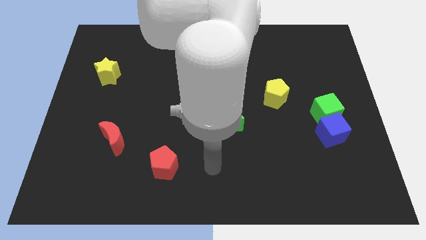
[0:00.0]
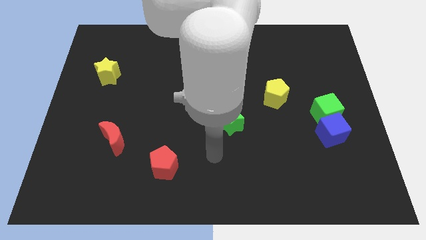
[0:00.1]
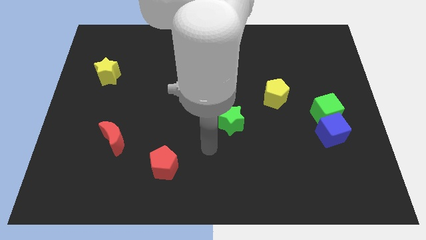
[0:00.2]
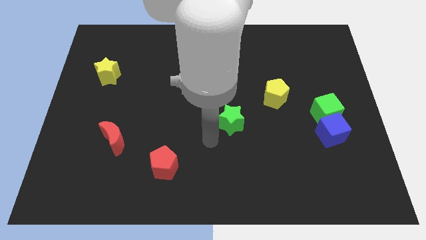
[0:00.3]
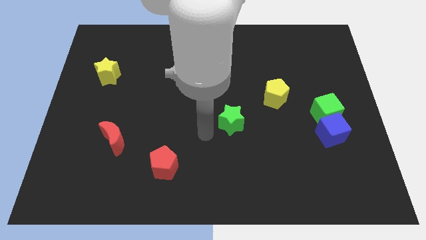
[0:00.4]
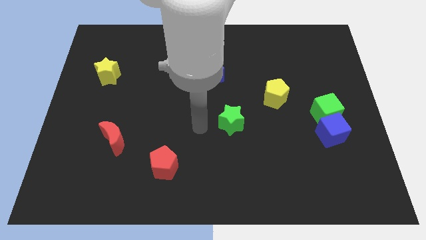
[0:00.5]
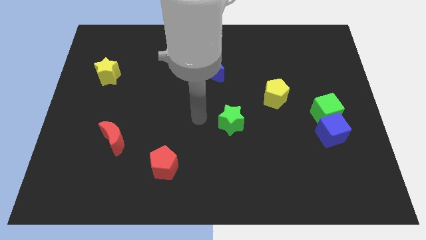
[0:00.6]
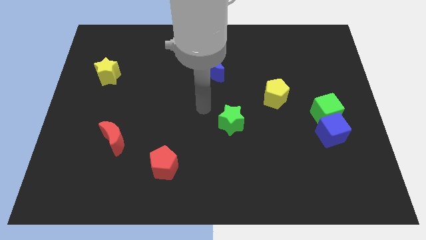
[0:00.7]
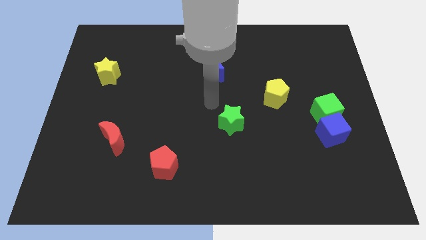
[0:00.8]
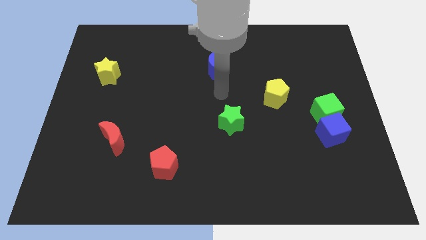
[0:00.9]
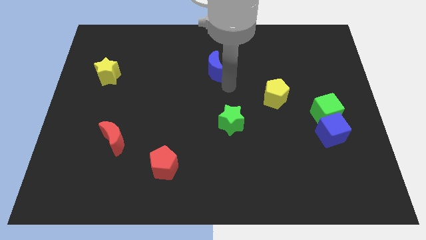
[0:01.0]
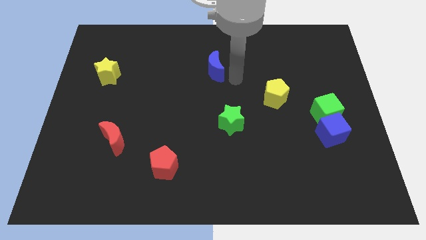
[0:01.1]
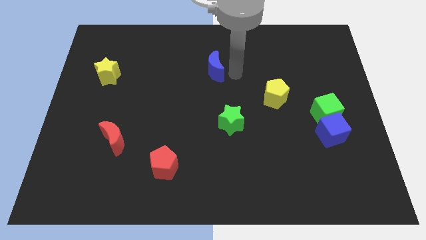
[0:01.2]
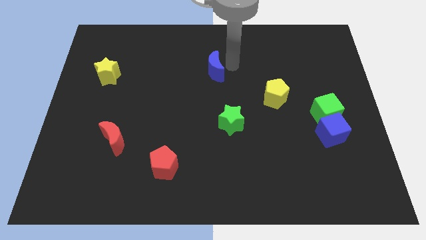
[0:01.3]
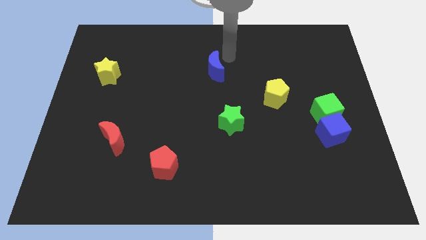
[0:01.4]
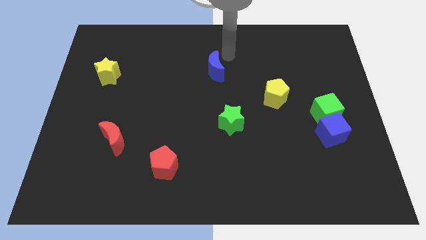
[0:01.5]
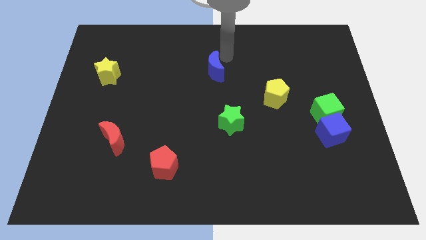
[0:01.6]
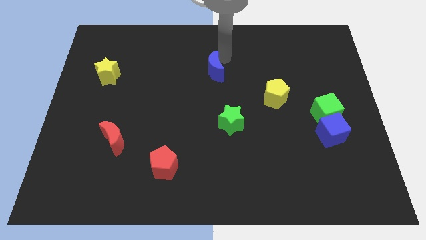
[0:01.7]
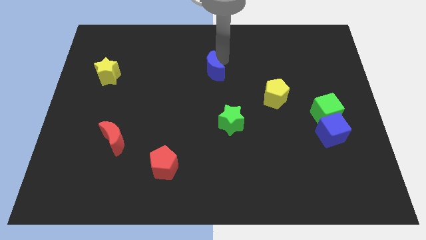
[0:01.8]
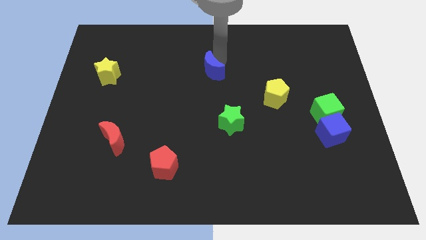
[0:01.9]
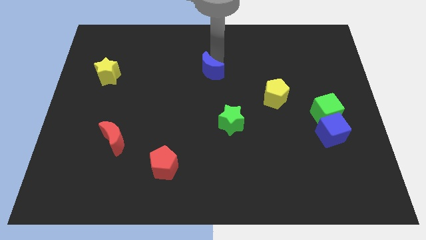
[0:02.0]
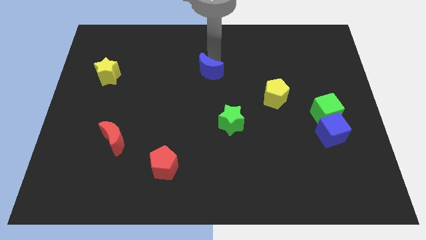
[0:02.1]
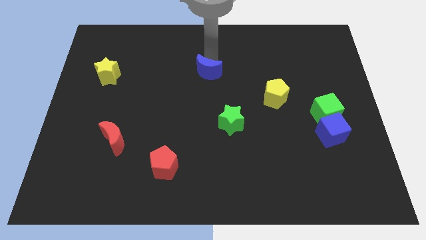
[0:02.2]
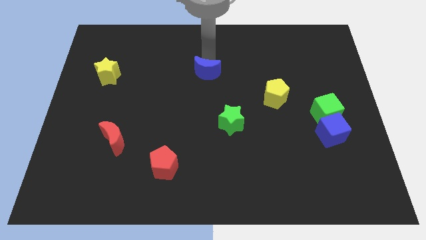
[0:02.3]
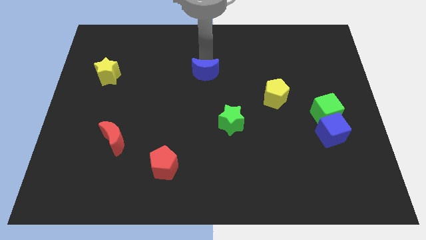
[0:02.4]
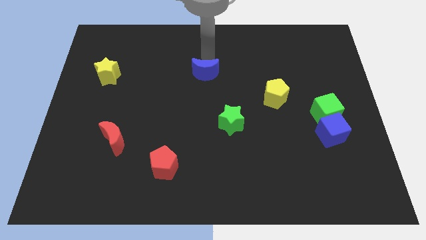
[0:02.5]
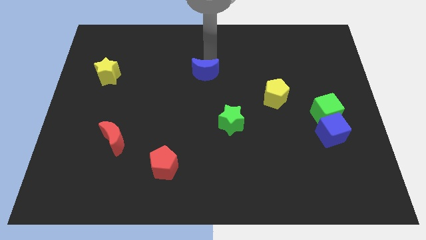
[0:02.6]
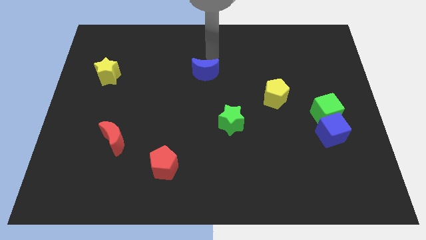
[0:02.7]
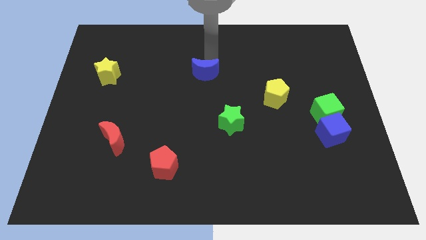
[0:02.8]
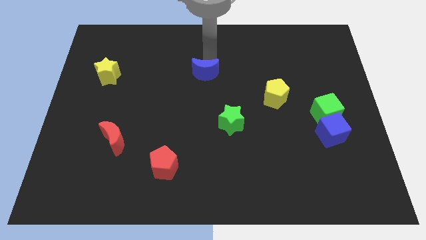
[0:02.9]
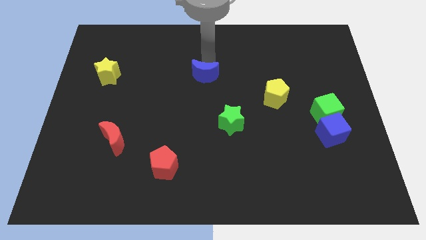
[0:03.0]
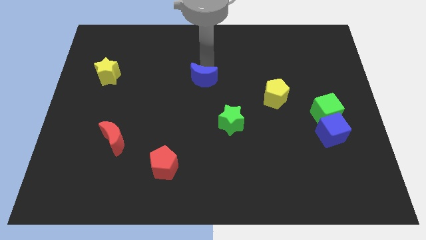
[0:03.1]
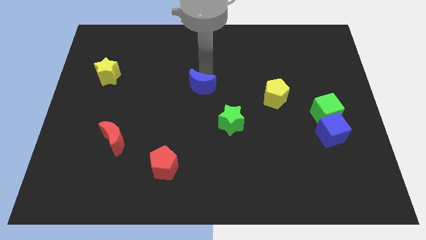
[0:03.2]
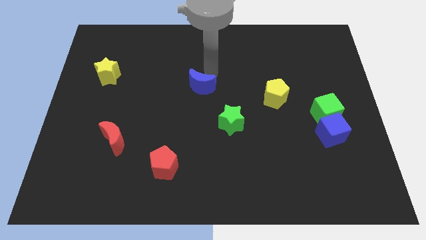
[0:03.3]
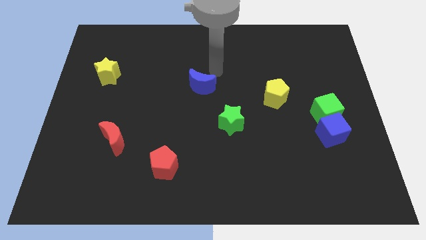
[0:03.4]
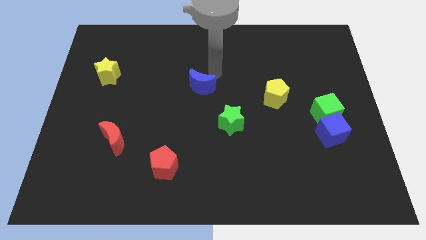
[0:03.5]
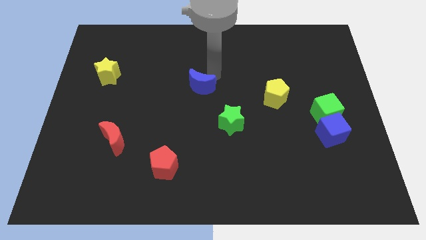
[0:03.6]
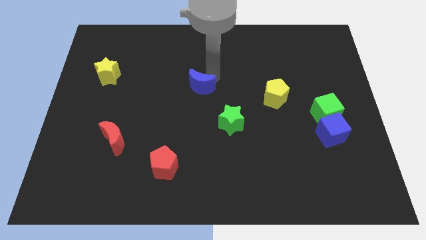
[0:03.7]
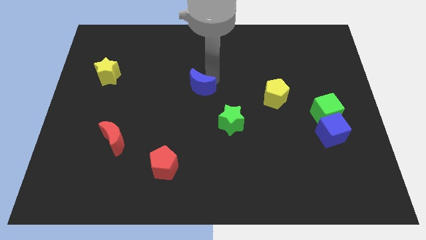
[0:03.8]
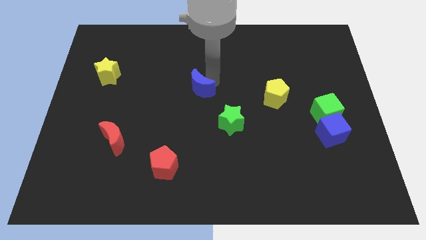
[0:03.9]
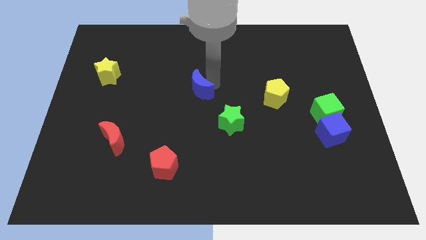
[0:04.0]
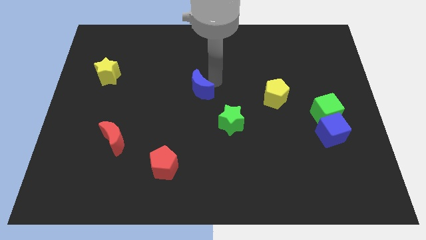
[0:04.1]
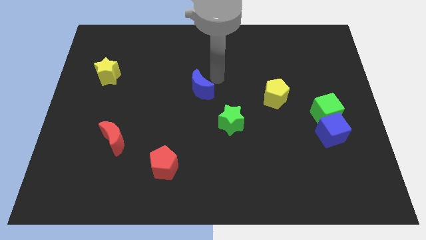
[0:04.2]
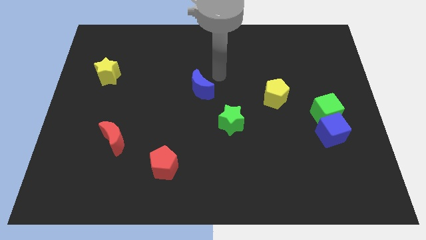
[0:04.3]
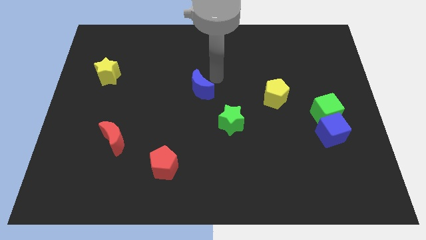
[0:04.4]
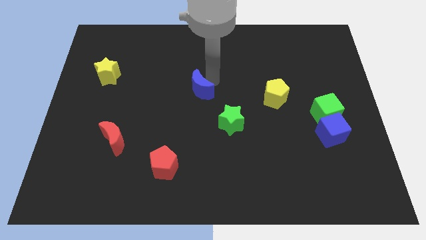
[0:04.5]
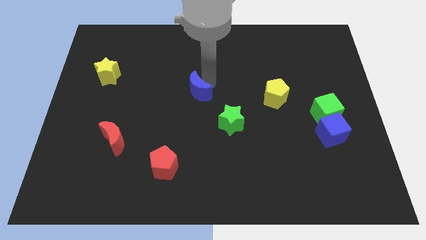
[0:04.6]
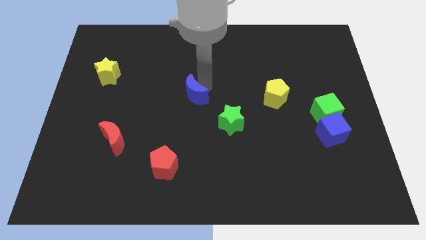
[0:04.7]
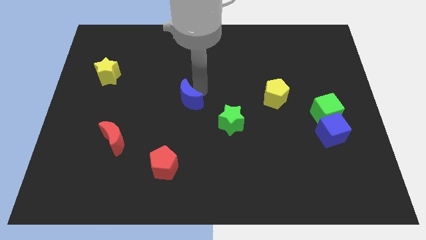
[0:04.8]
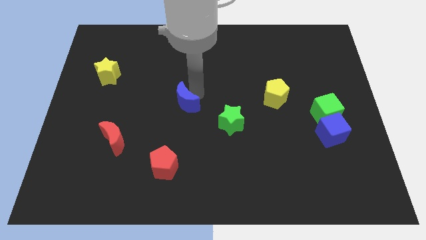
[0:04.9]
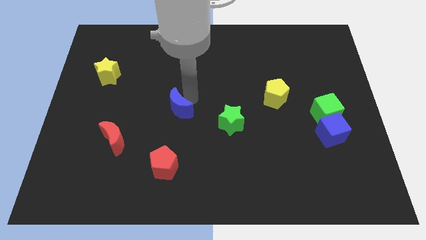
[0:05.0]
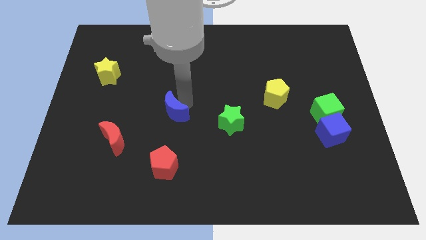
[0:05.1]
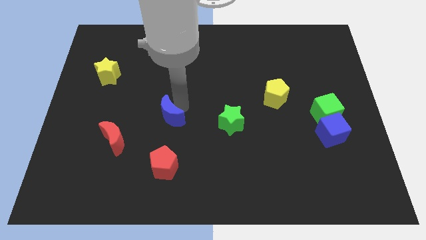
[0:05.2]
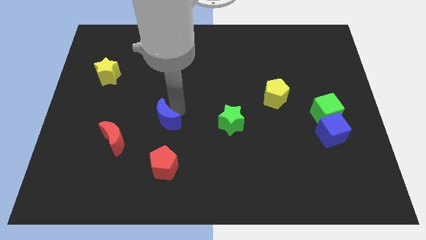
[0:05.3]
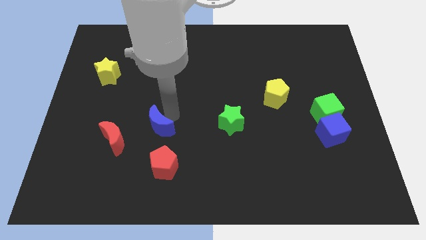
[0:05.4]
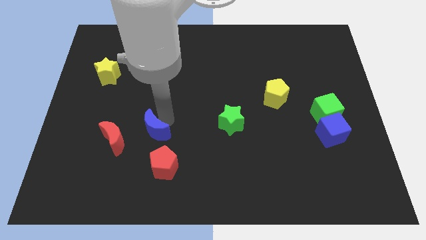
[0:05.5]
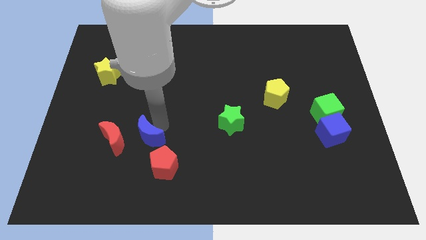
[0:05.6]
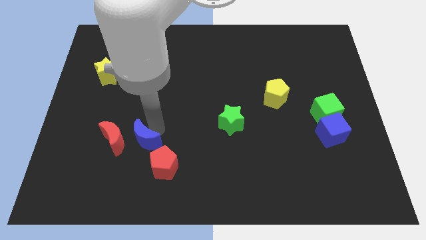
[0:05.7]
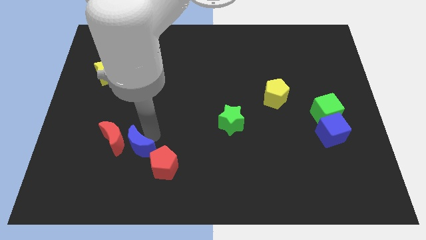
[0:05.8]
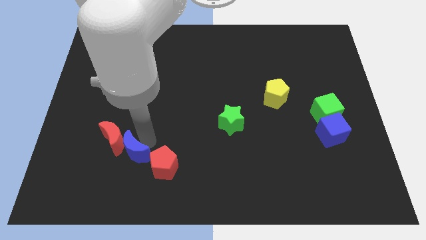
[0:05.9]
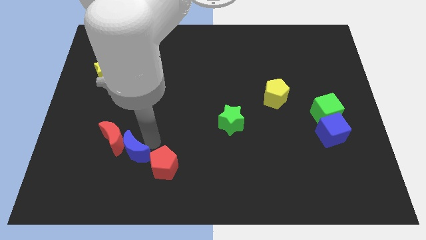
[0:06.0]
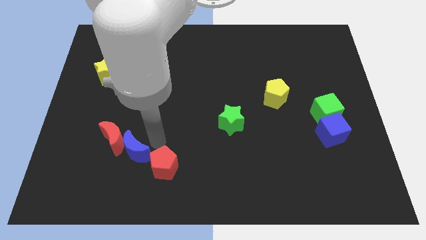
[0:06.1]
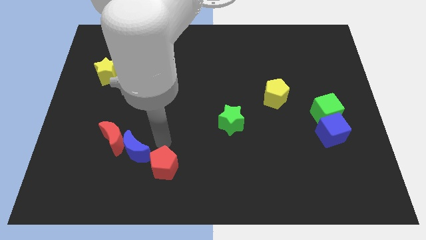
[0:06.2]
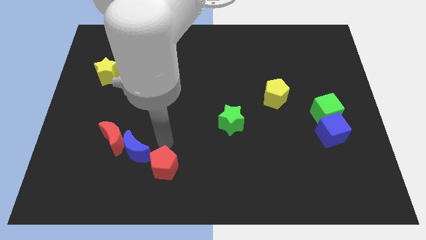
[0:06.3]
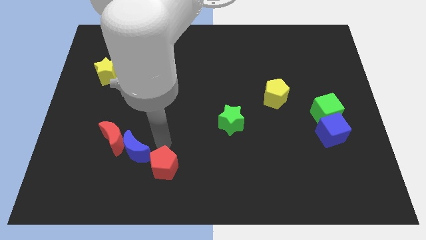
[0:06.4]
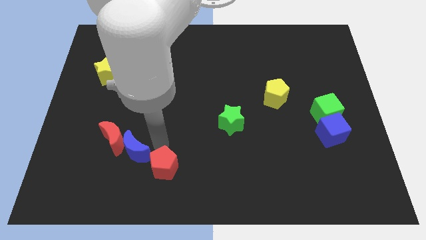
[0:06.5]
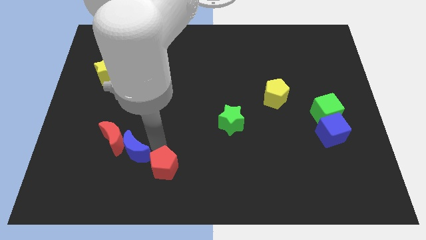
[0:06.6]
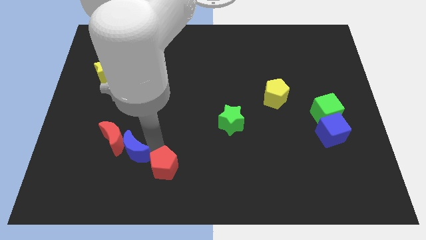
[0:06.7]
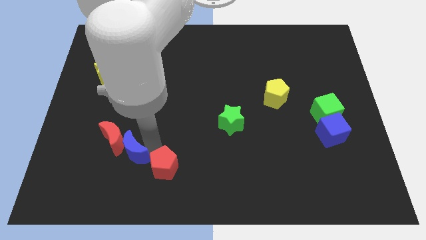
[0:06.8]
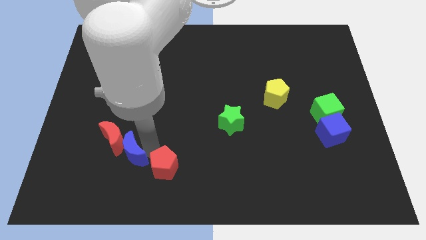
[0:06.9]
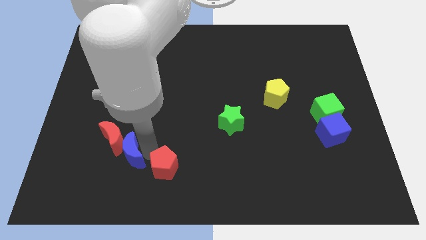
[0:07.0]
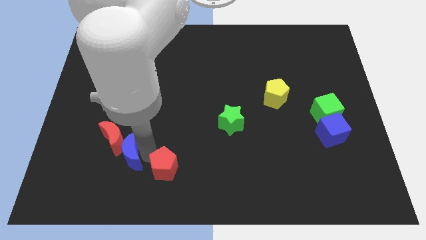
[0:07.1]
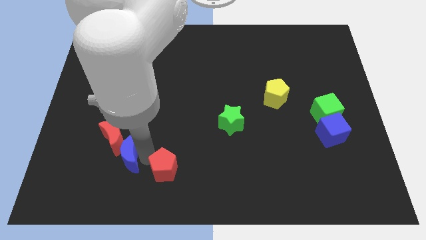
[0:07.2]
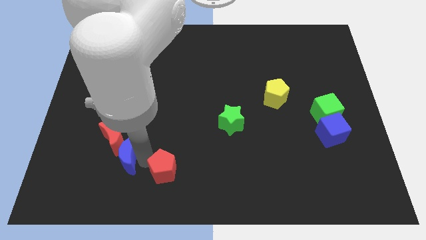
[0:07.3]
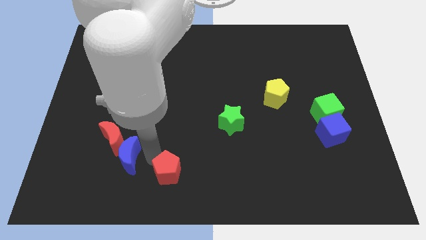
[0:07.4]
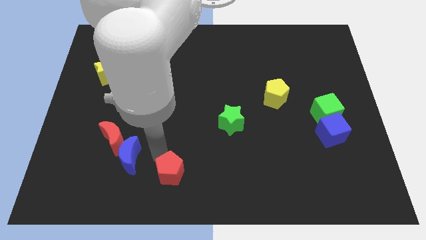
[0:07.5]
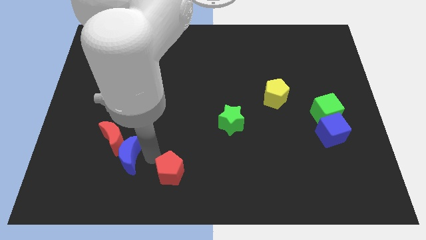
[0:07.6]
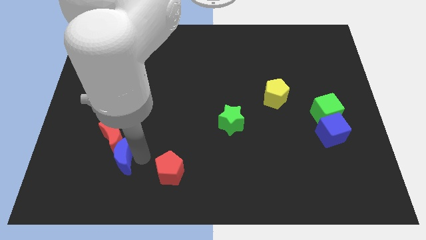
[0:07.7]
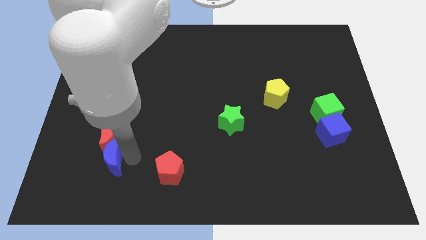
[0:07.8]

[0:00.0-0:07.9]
push the blue moon diagonally down and to the left of the red moon

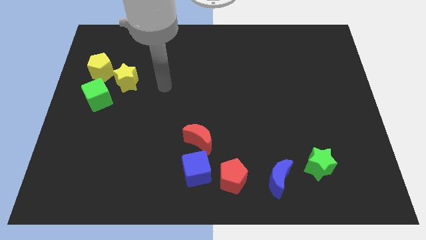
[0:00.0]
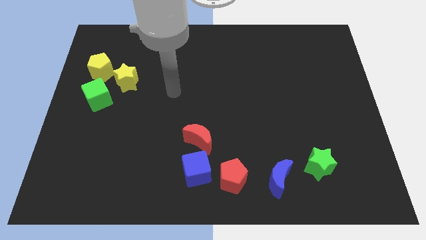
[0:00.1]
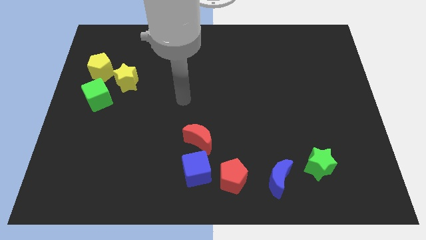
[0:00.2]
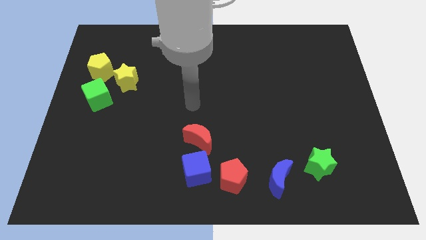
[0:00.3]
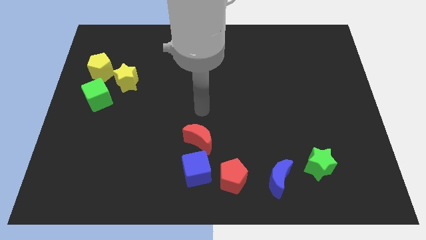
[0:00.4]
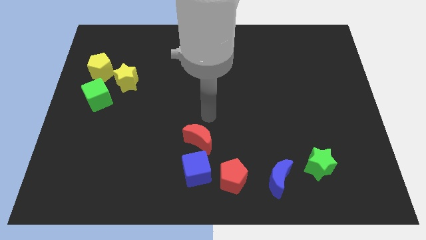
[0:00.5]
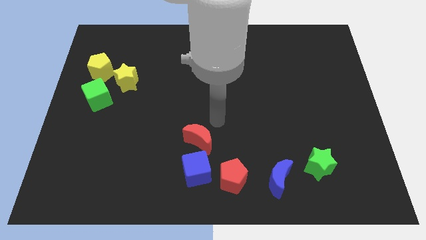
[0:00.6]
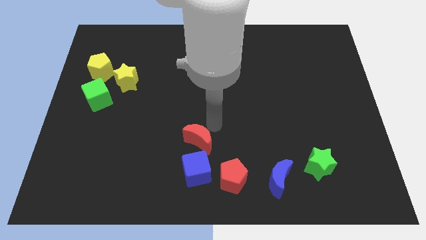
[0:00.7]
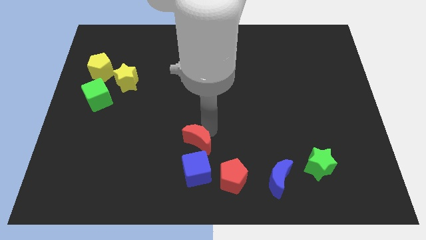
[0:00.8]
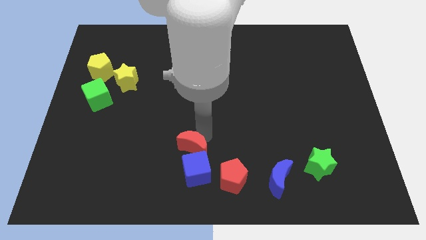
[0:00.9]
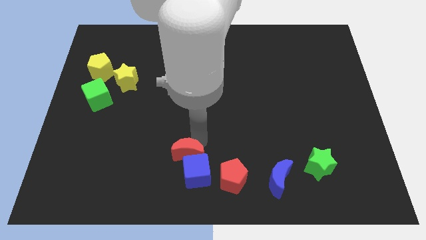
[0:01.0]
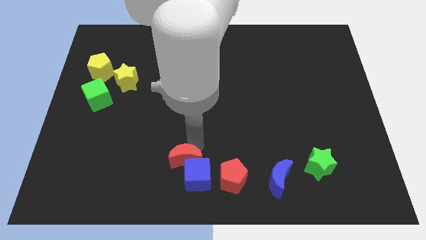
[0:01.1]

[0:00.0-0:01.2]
put the red moon to the left side of the red pentagon
